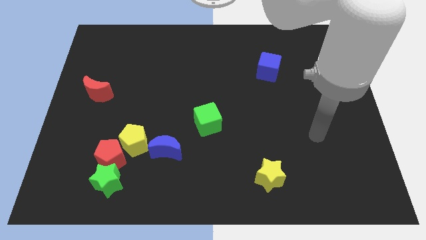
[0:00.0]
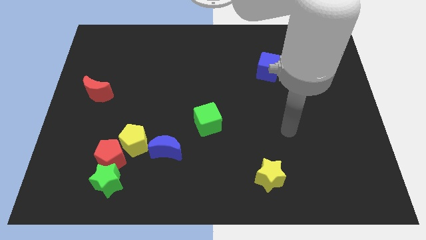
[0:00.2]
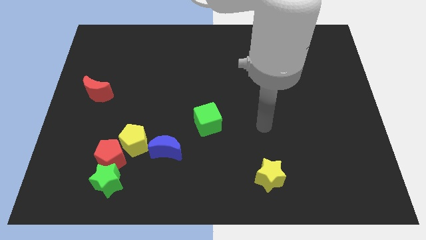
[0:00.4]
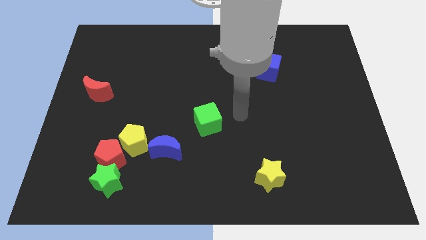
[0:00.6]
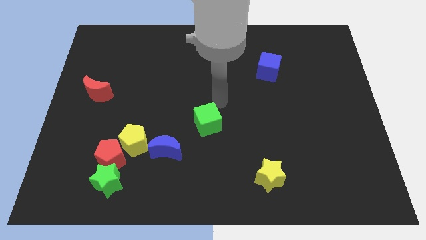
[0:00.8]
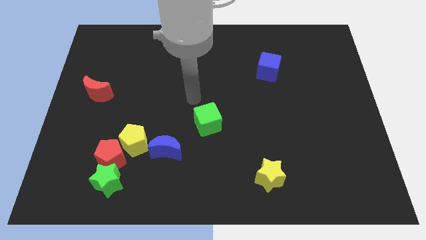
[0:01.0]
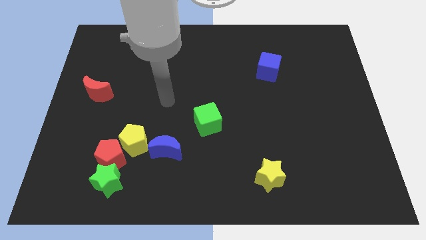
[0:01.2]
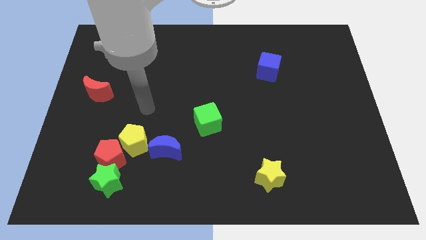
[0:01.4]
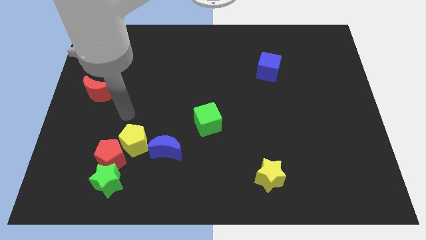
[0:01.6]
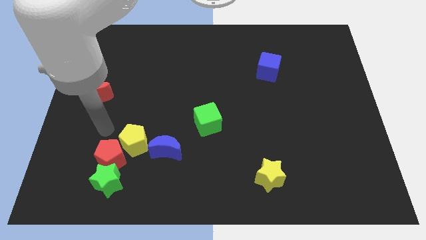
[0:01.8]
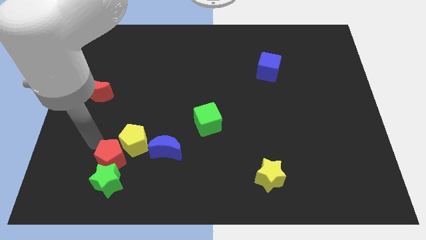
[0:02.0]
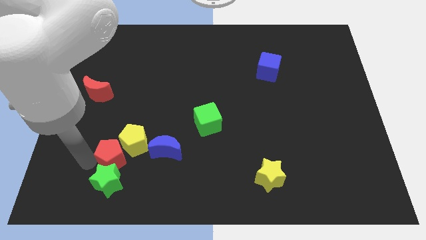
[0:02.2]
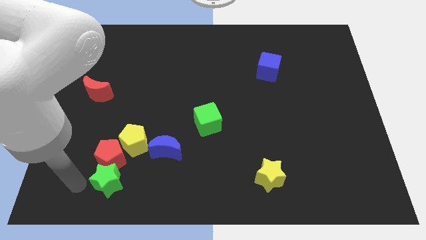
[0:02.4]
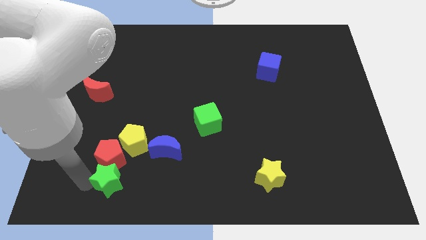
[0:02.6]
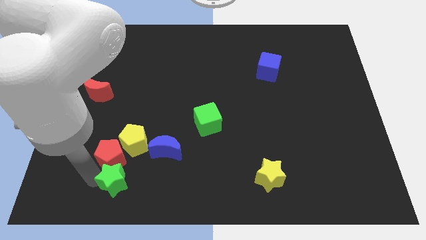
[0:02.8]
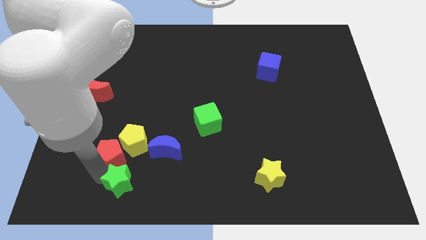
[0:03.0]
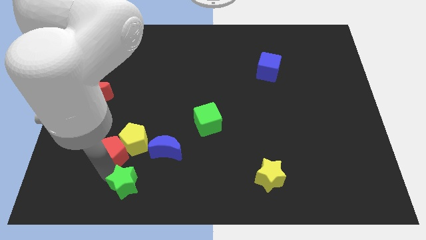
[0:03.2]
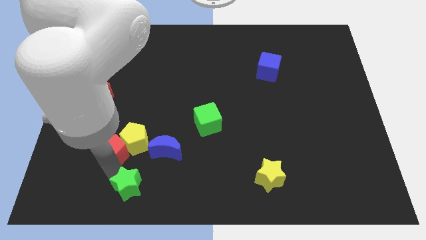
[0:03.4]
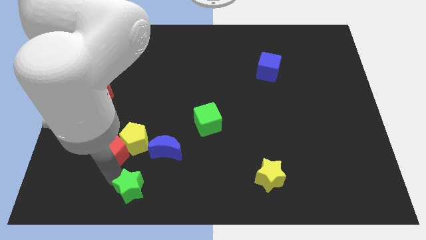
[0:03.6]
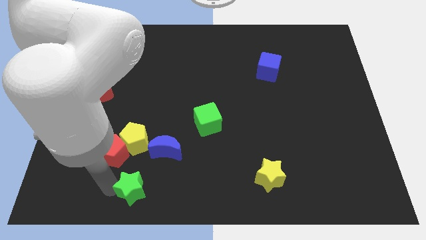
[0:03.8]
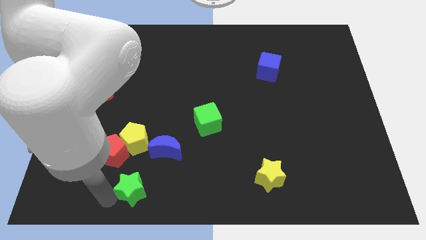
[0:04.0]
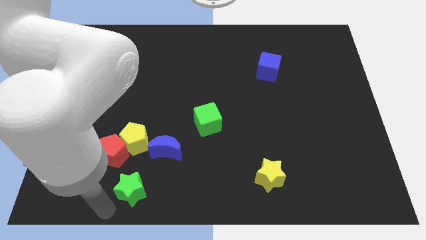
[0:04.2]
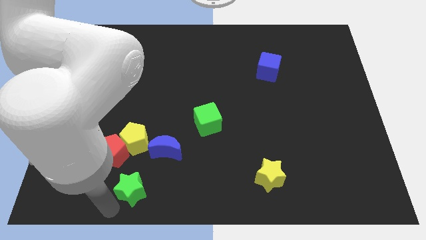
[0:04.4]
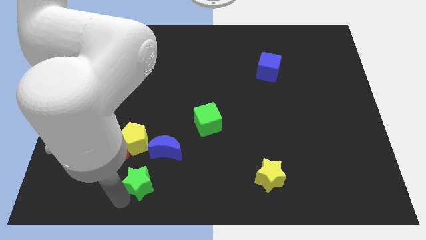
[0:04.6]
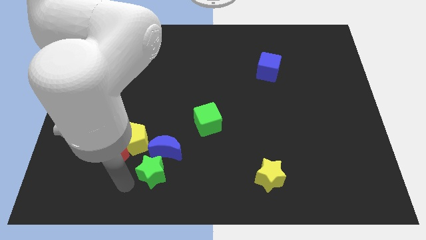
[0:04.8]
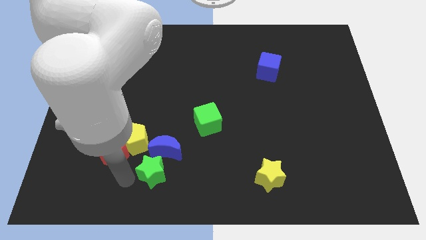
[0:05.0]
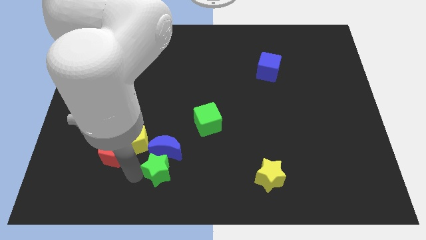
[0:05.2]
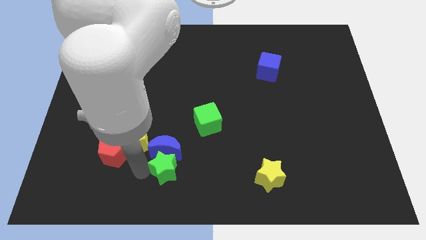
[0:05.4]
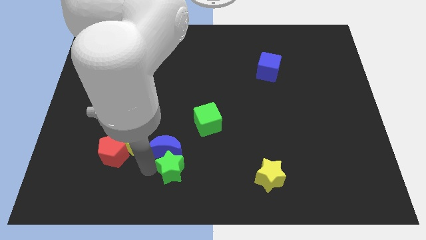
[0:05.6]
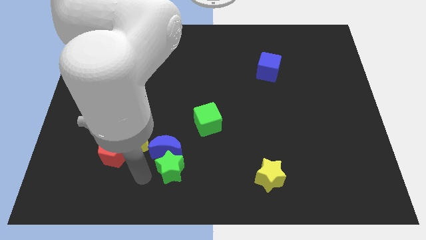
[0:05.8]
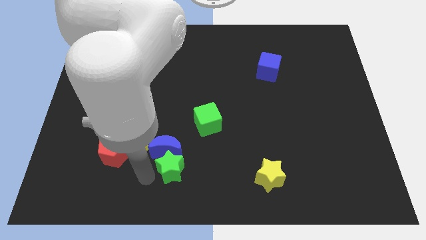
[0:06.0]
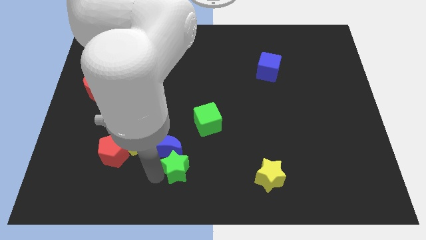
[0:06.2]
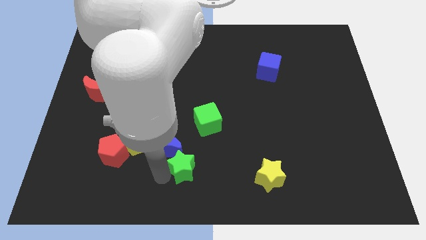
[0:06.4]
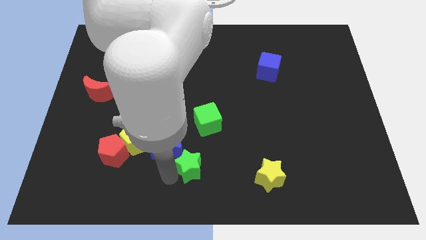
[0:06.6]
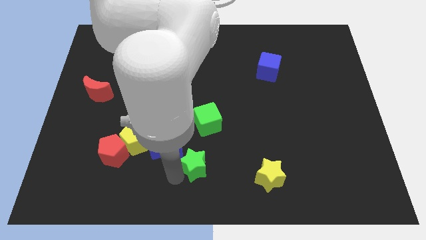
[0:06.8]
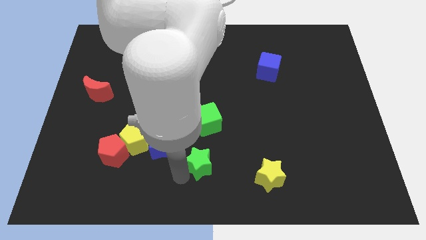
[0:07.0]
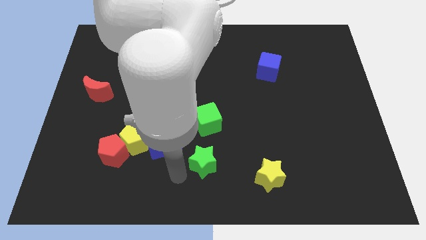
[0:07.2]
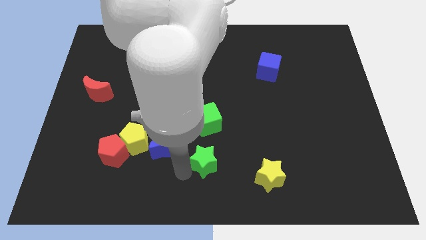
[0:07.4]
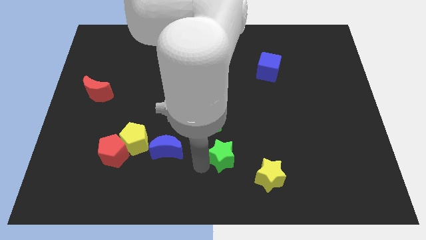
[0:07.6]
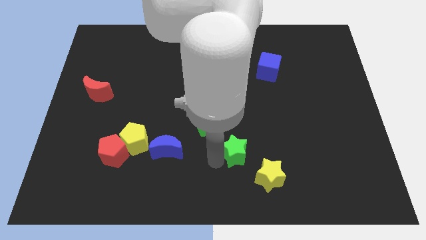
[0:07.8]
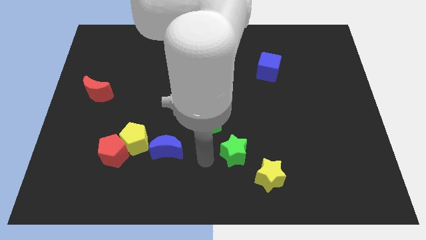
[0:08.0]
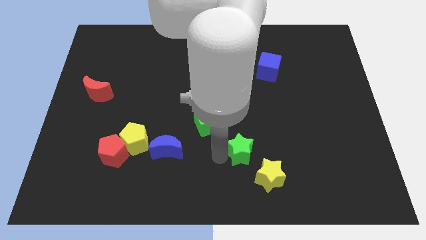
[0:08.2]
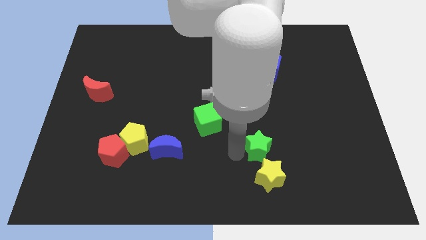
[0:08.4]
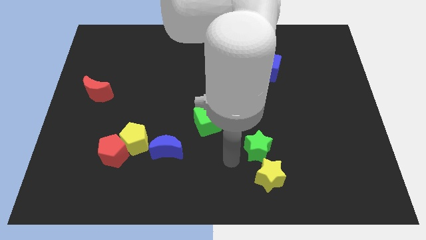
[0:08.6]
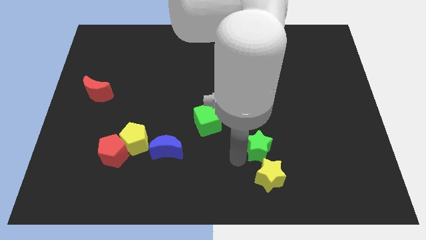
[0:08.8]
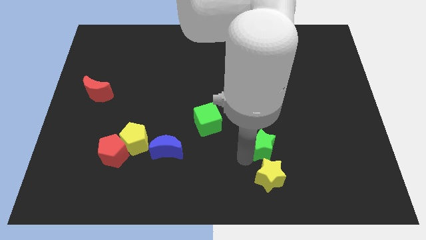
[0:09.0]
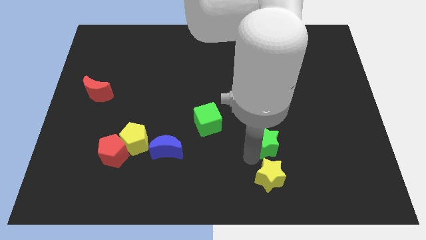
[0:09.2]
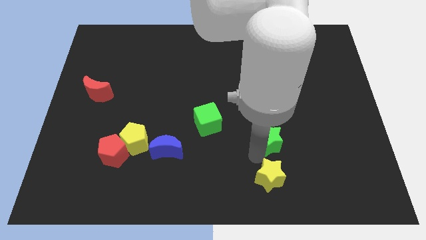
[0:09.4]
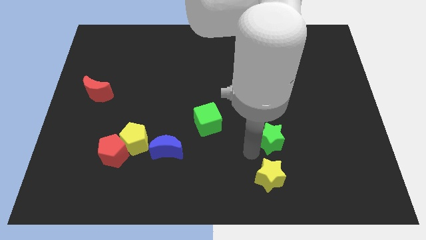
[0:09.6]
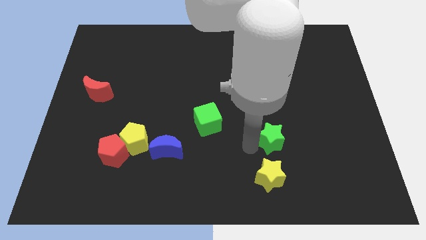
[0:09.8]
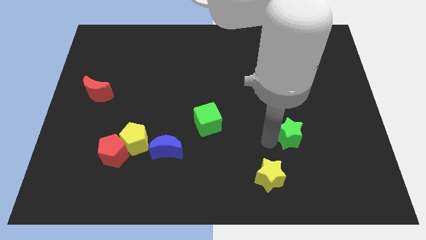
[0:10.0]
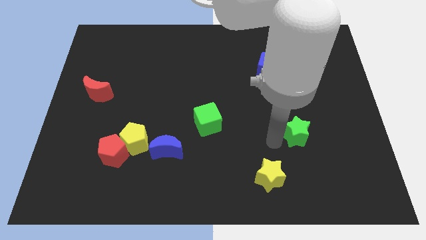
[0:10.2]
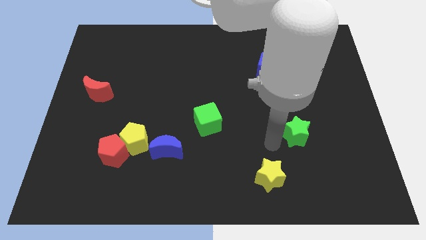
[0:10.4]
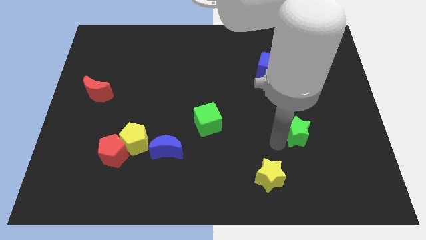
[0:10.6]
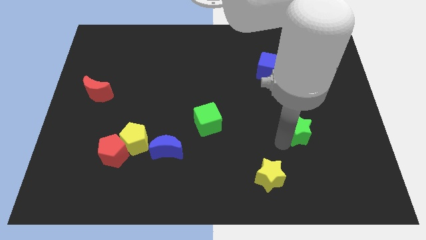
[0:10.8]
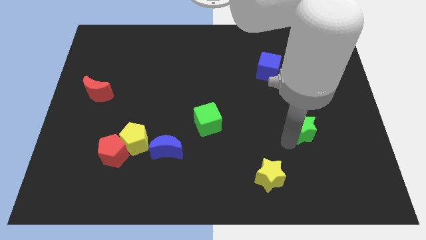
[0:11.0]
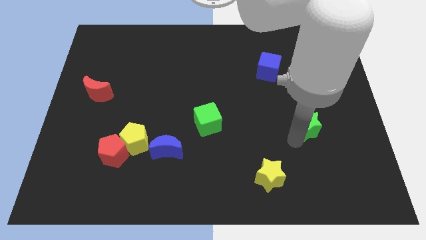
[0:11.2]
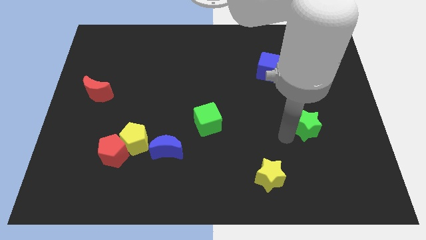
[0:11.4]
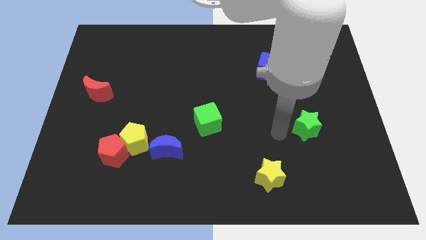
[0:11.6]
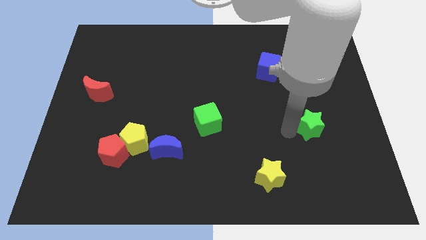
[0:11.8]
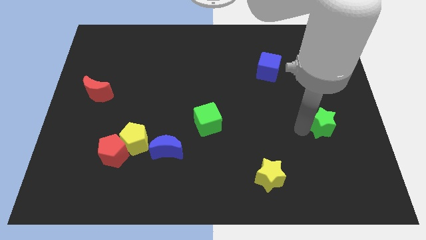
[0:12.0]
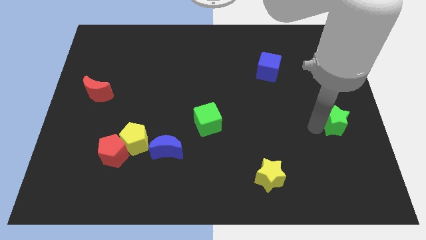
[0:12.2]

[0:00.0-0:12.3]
push the green star to the right side of the board
